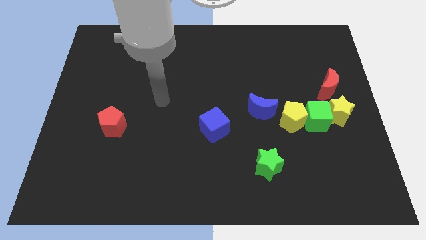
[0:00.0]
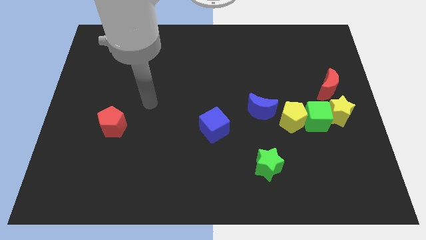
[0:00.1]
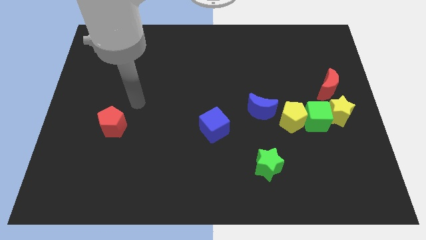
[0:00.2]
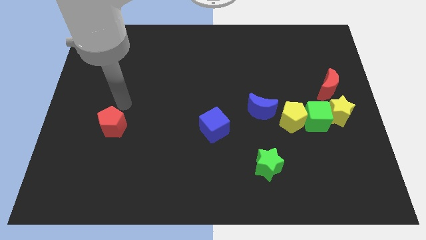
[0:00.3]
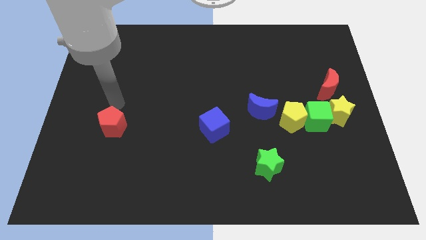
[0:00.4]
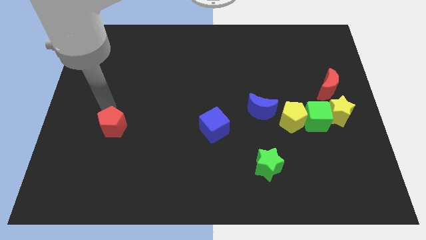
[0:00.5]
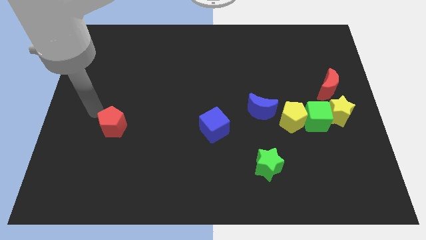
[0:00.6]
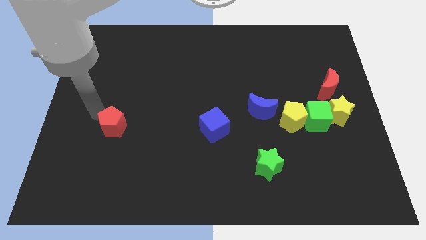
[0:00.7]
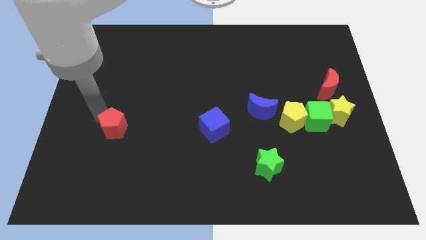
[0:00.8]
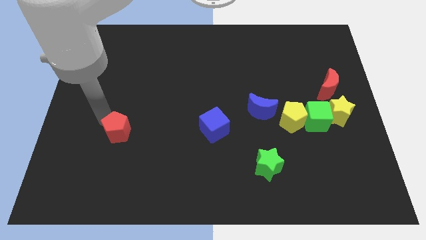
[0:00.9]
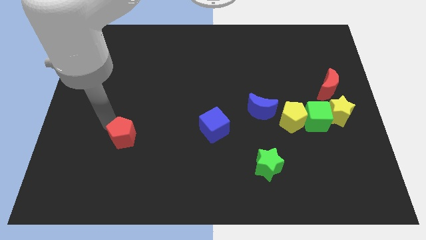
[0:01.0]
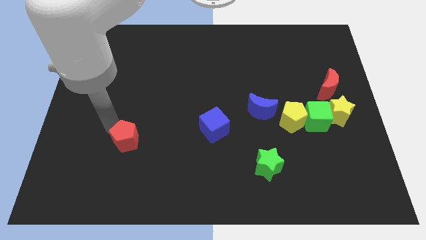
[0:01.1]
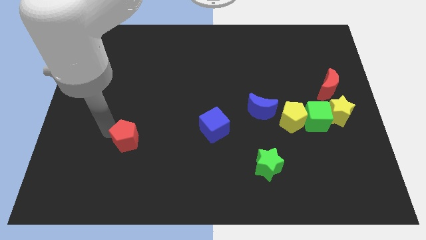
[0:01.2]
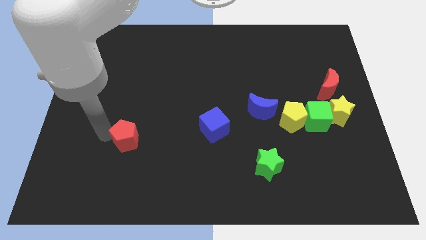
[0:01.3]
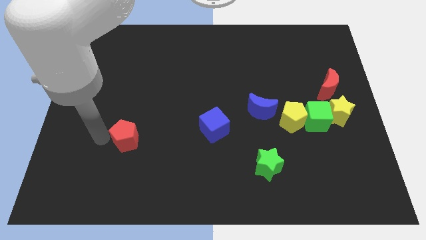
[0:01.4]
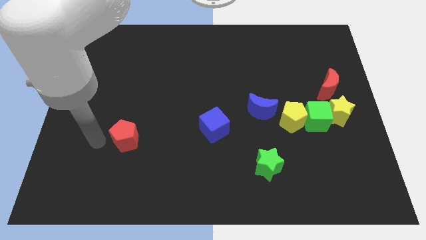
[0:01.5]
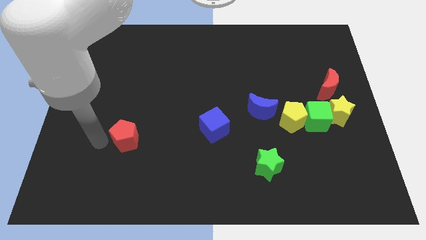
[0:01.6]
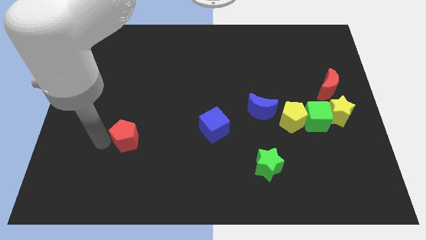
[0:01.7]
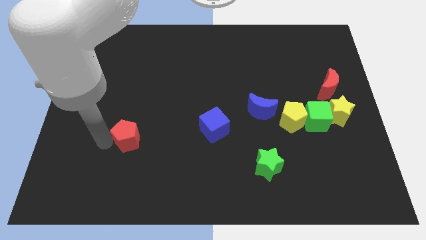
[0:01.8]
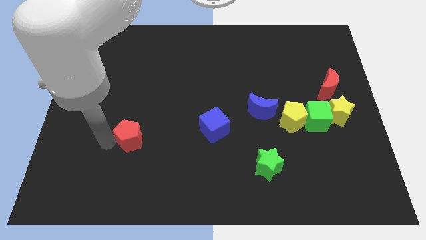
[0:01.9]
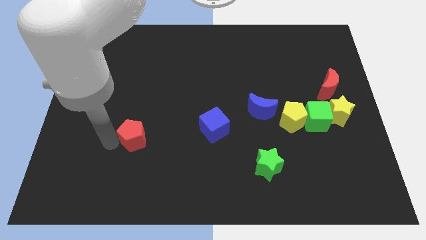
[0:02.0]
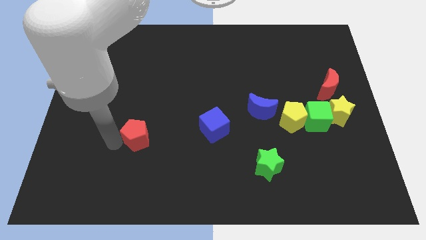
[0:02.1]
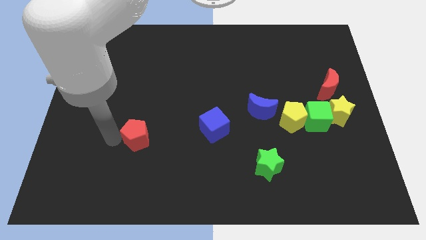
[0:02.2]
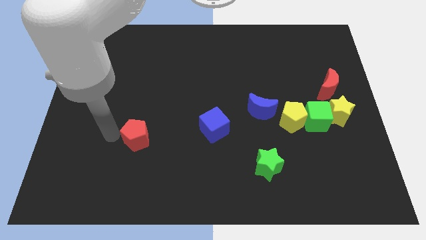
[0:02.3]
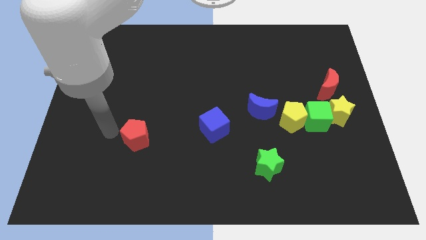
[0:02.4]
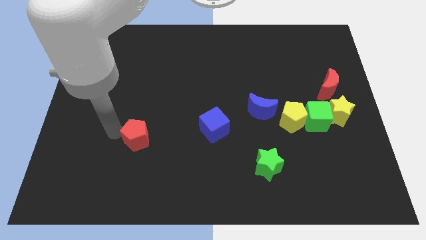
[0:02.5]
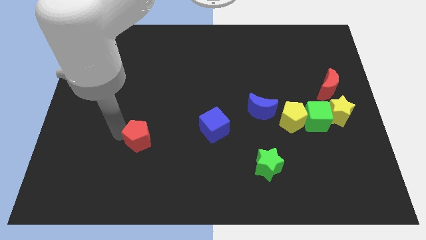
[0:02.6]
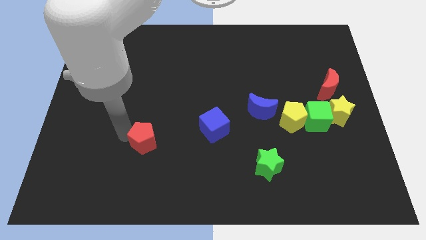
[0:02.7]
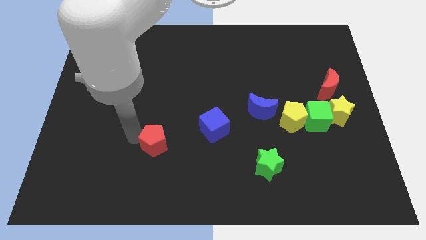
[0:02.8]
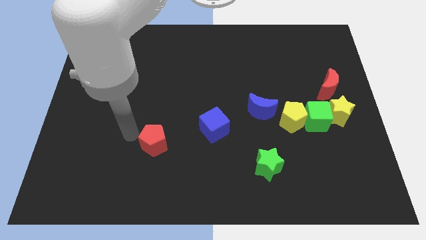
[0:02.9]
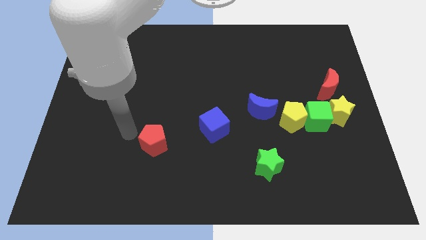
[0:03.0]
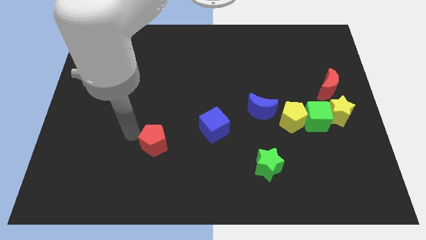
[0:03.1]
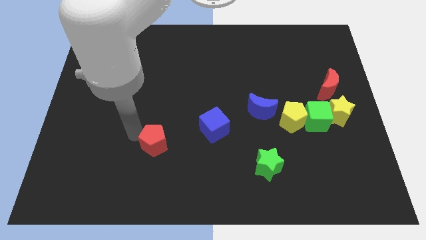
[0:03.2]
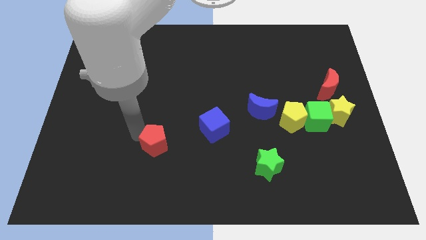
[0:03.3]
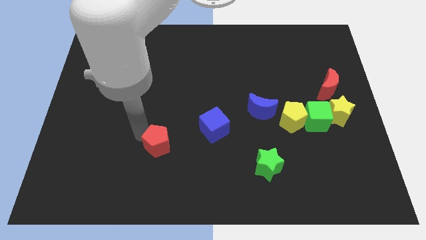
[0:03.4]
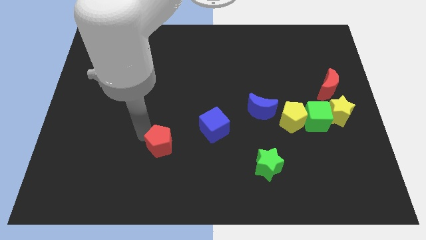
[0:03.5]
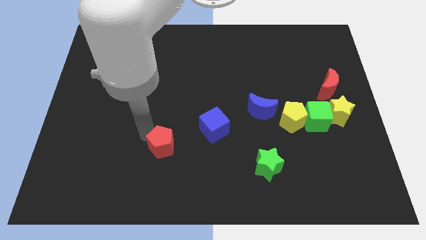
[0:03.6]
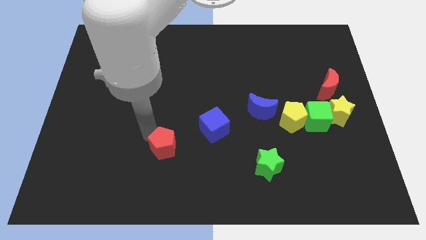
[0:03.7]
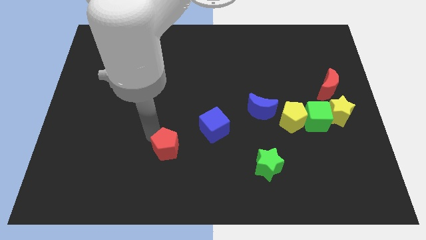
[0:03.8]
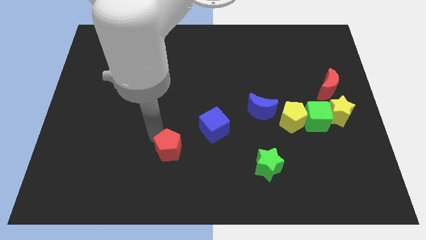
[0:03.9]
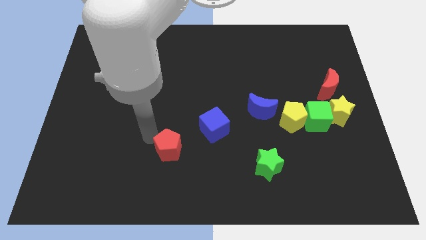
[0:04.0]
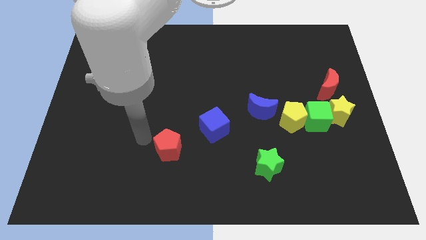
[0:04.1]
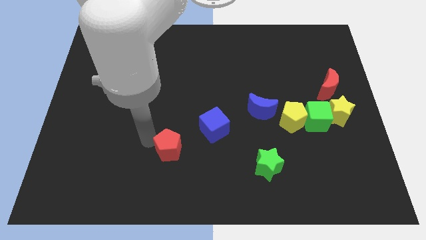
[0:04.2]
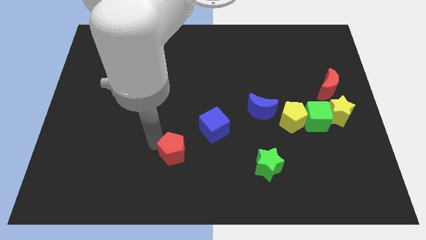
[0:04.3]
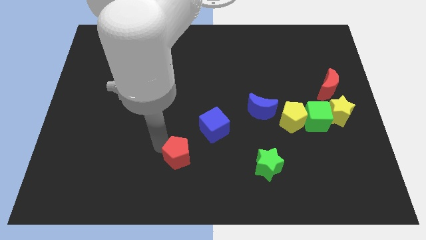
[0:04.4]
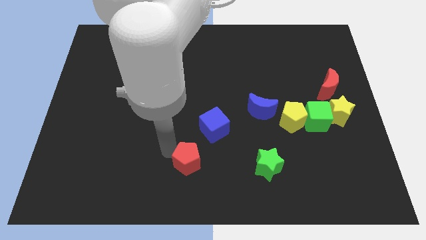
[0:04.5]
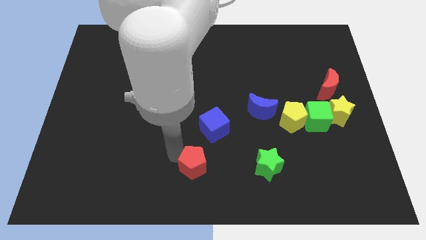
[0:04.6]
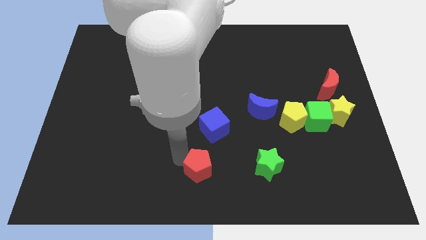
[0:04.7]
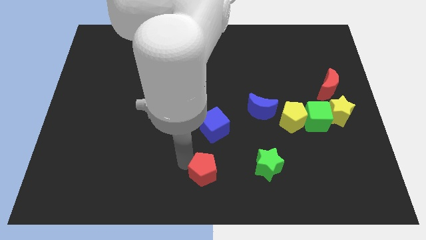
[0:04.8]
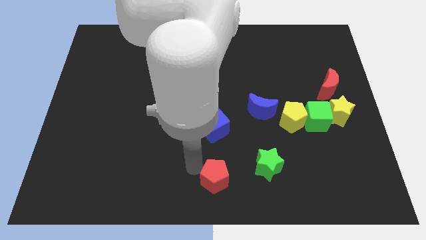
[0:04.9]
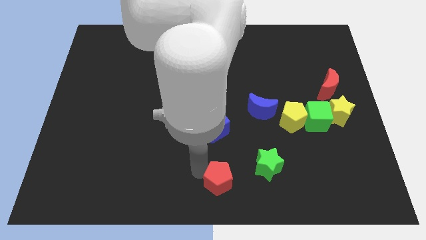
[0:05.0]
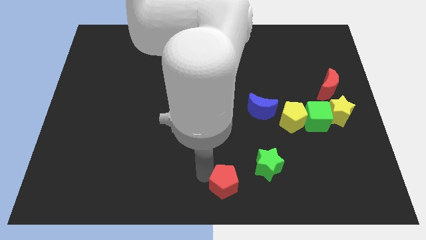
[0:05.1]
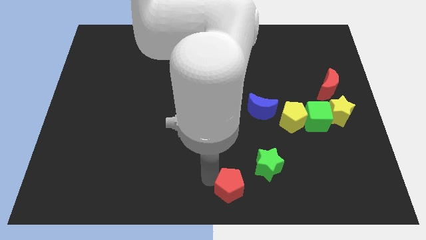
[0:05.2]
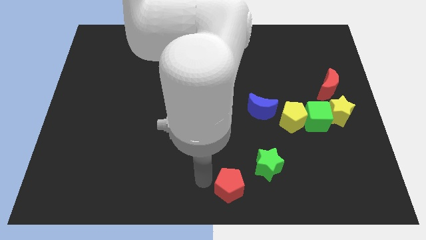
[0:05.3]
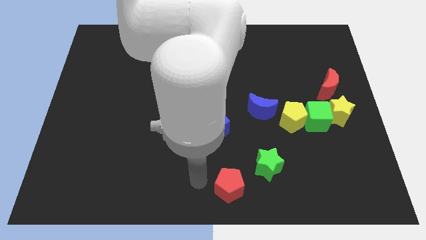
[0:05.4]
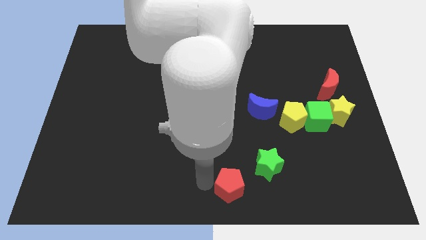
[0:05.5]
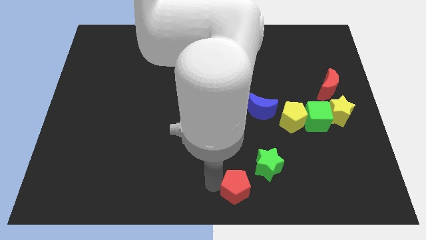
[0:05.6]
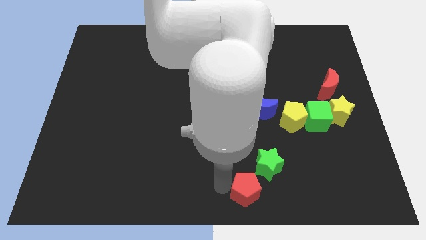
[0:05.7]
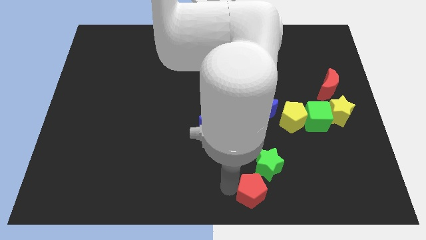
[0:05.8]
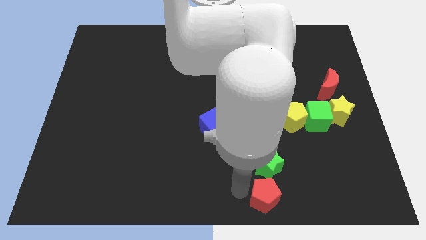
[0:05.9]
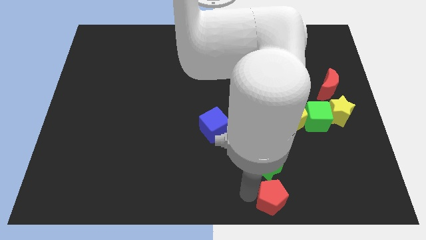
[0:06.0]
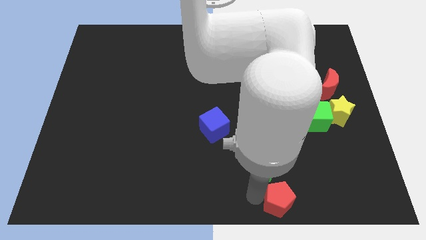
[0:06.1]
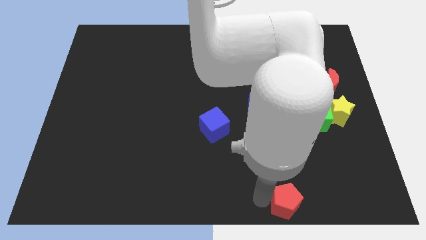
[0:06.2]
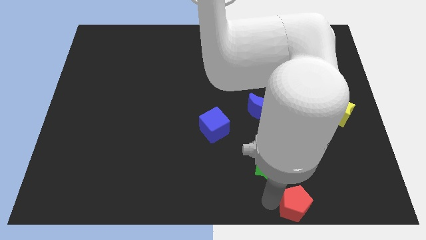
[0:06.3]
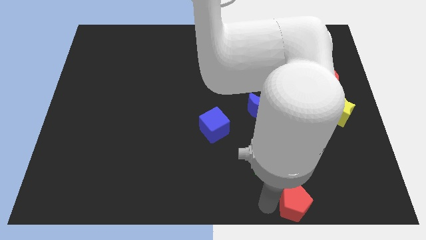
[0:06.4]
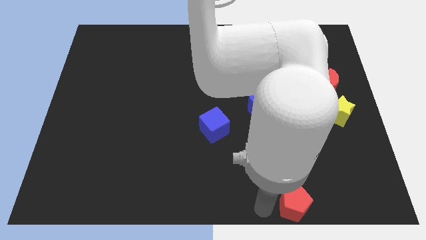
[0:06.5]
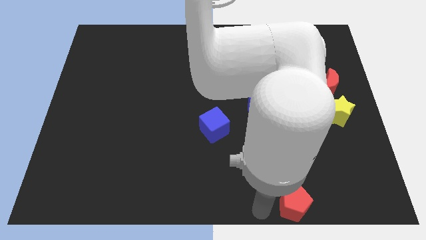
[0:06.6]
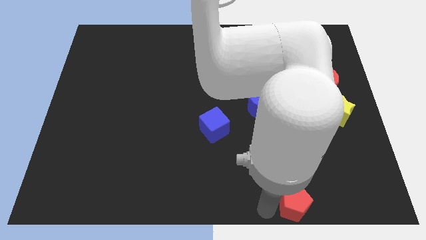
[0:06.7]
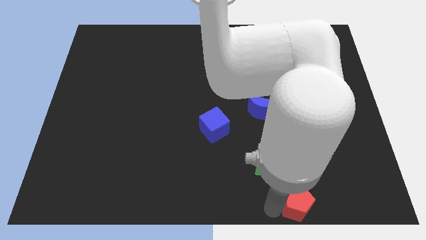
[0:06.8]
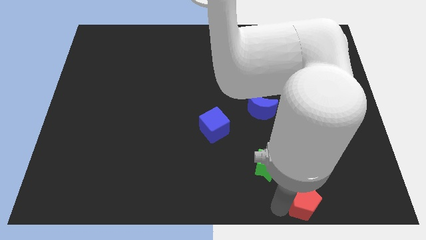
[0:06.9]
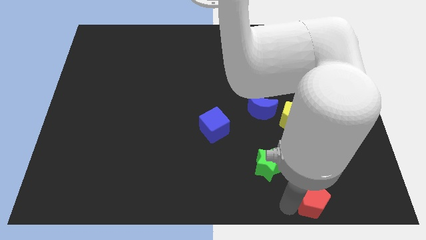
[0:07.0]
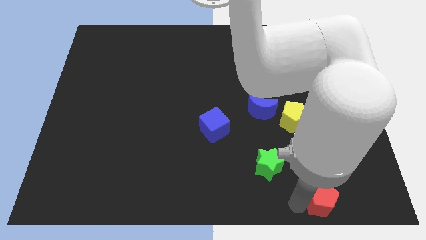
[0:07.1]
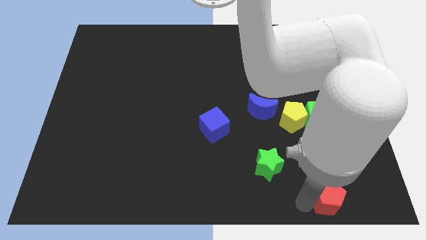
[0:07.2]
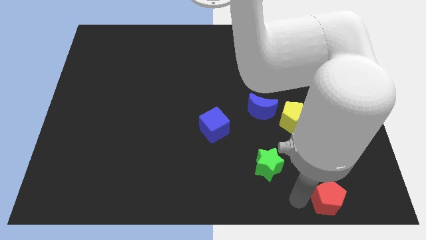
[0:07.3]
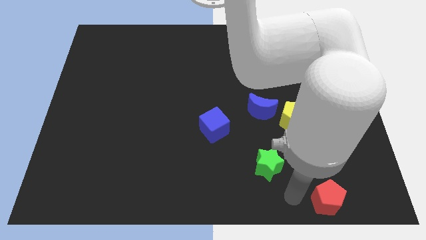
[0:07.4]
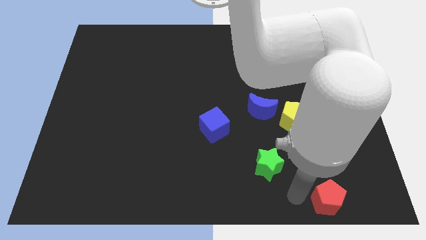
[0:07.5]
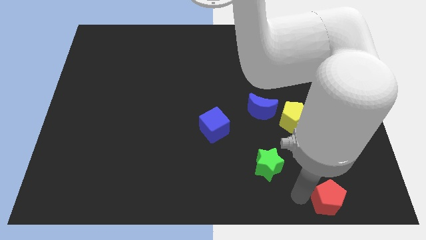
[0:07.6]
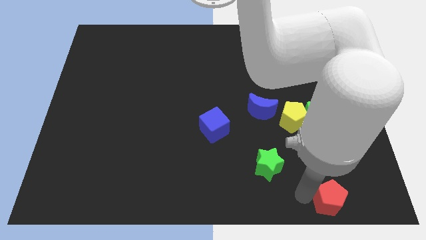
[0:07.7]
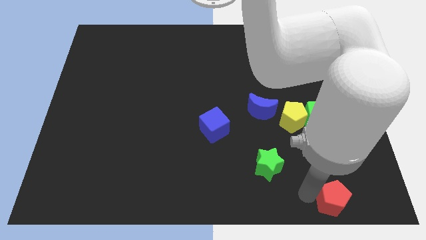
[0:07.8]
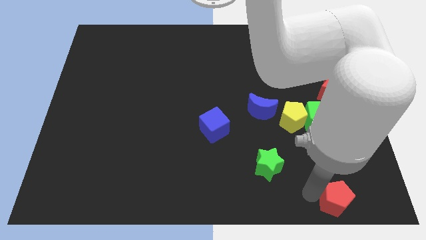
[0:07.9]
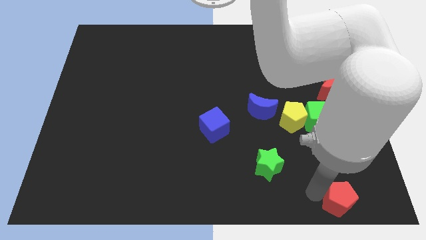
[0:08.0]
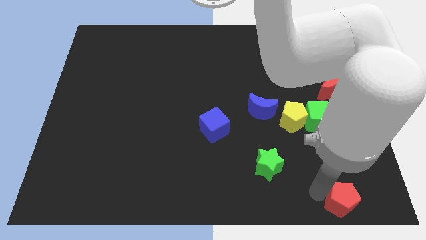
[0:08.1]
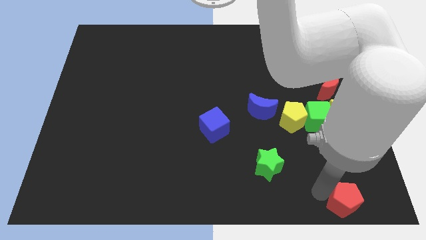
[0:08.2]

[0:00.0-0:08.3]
move the red pentagon to the bottom right
